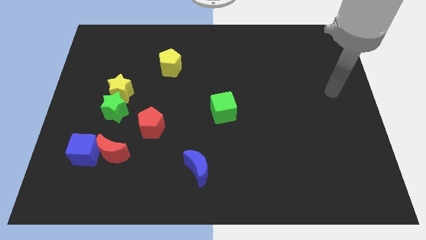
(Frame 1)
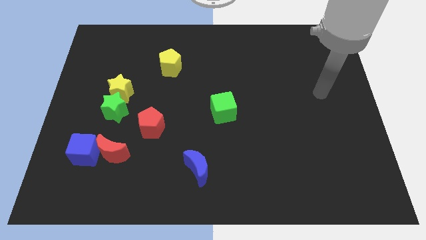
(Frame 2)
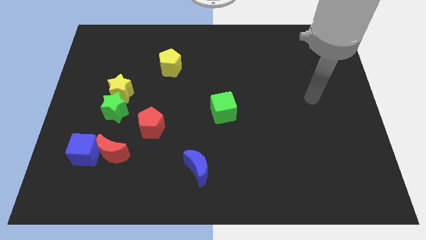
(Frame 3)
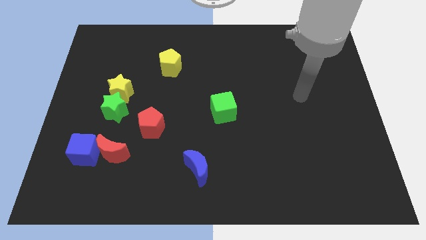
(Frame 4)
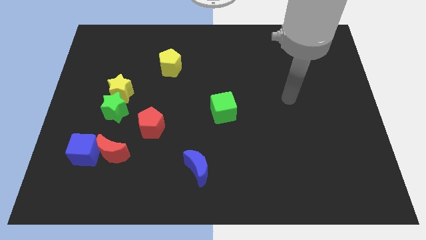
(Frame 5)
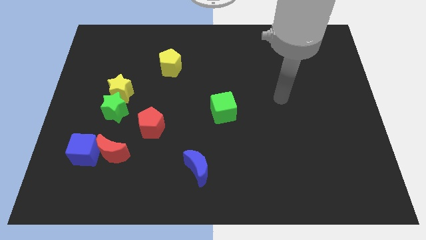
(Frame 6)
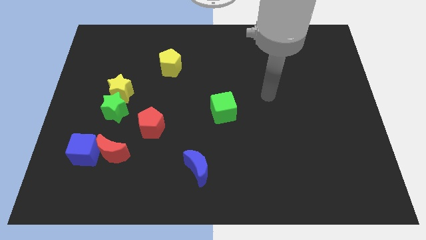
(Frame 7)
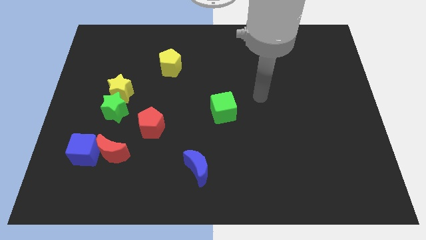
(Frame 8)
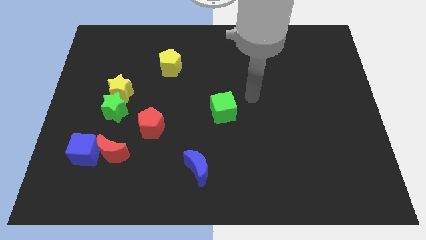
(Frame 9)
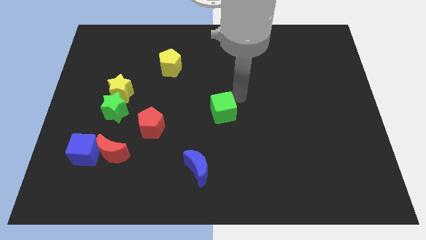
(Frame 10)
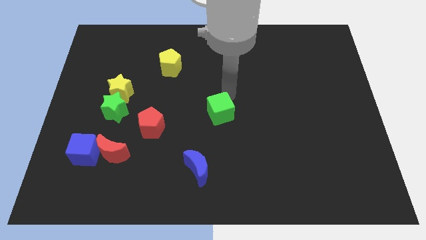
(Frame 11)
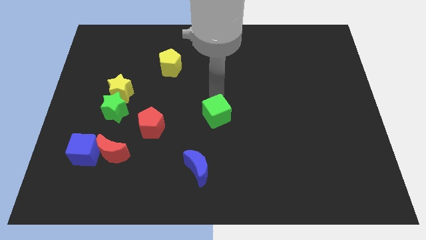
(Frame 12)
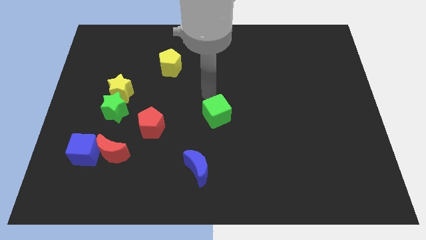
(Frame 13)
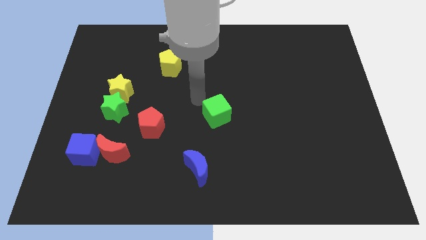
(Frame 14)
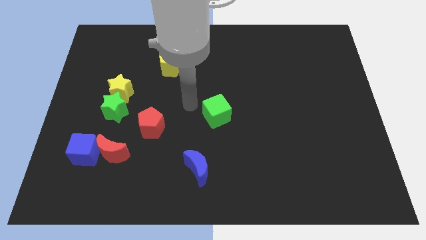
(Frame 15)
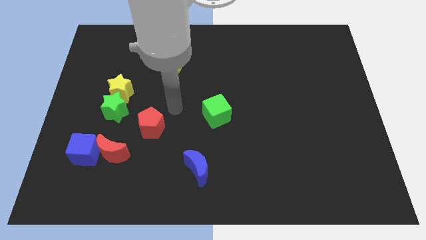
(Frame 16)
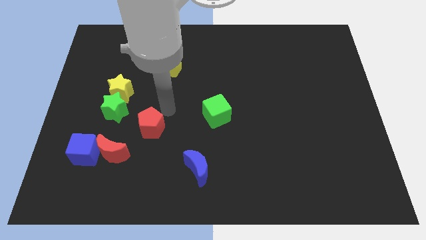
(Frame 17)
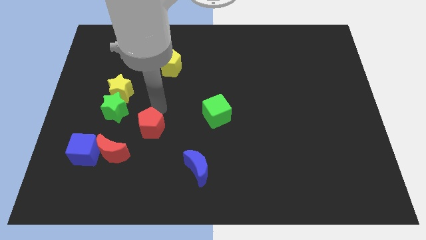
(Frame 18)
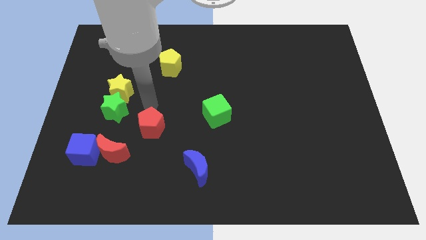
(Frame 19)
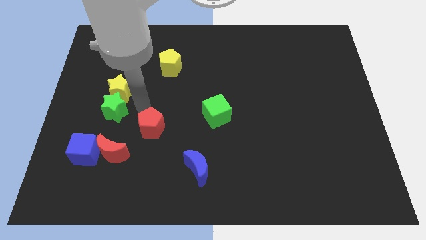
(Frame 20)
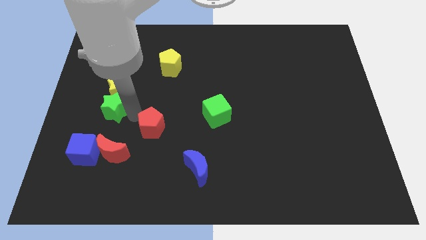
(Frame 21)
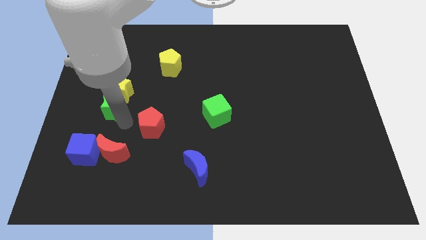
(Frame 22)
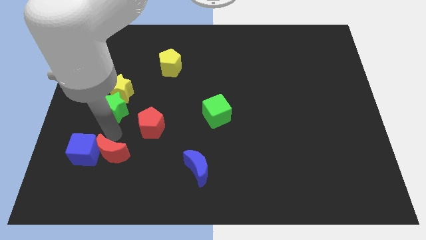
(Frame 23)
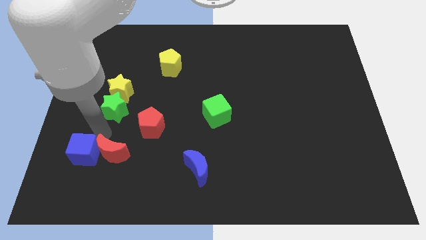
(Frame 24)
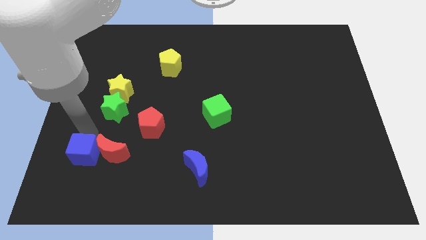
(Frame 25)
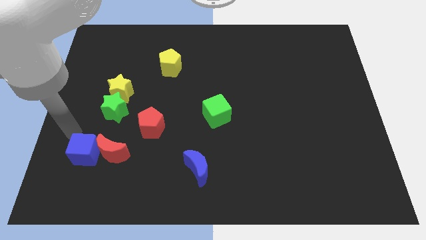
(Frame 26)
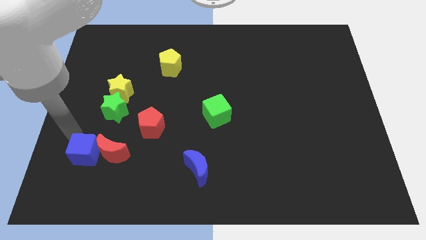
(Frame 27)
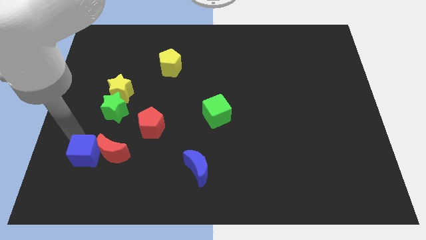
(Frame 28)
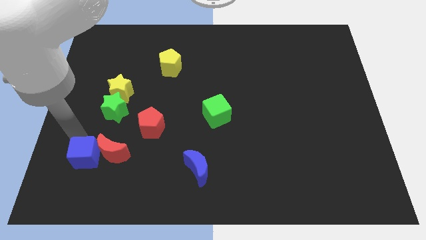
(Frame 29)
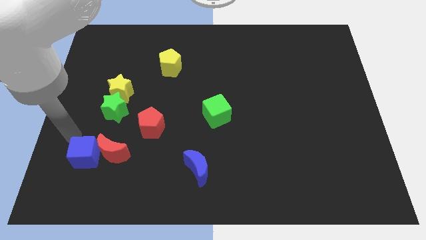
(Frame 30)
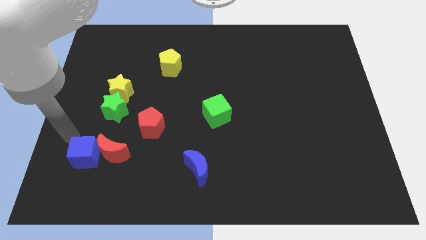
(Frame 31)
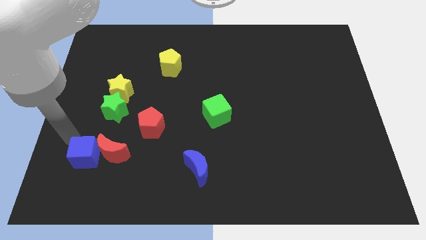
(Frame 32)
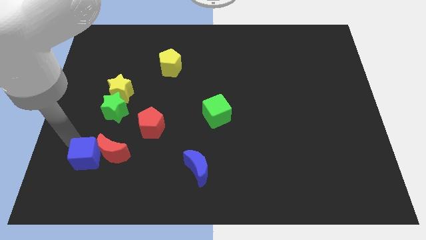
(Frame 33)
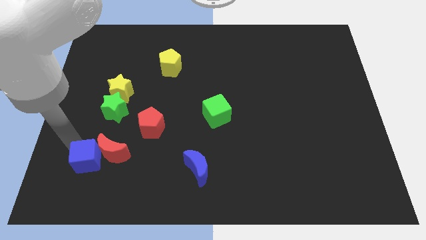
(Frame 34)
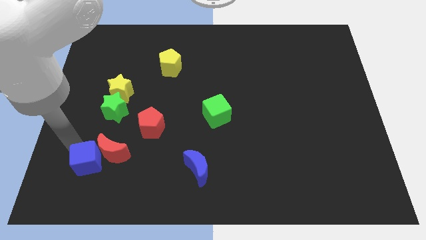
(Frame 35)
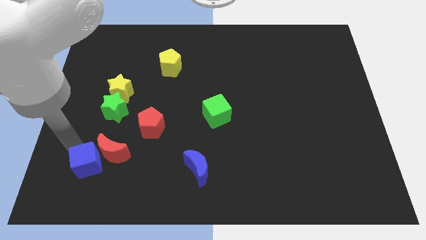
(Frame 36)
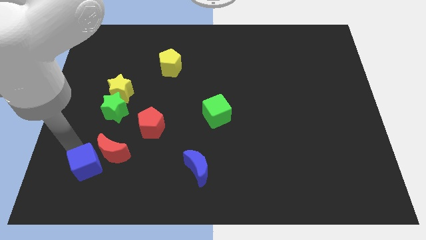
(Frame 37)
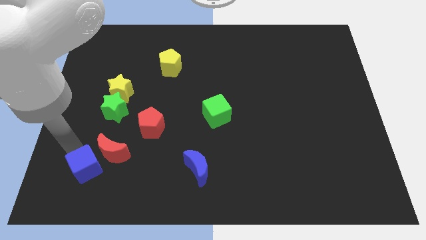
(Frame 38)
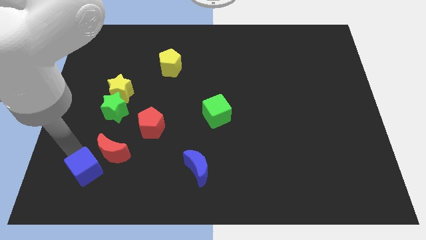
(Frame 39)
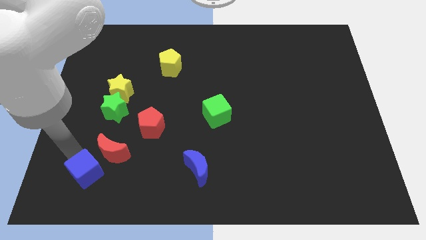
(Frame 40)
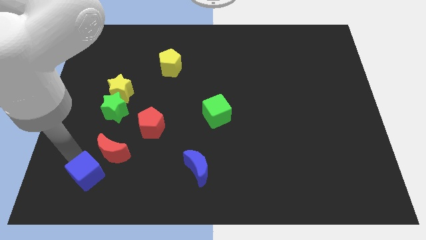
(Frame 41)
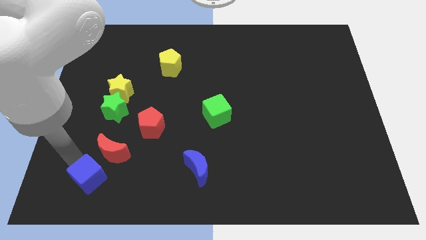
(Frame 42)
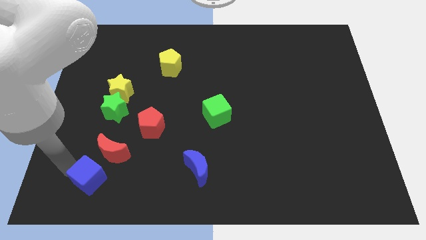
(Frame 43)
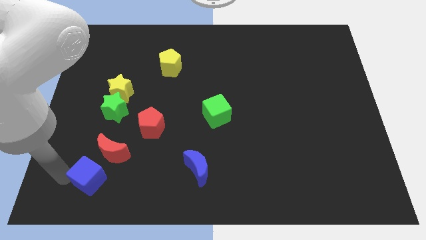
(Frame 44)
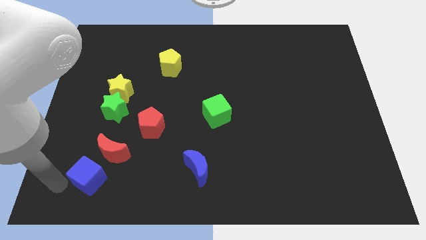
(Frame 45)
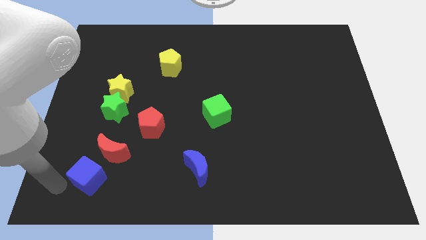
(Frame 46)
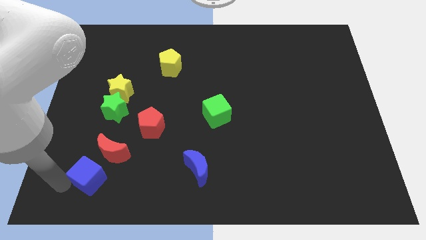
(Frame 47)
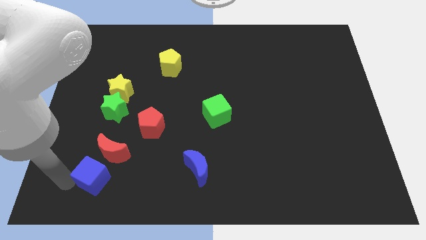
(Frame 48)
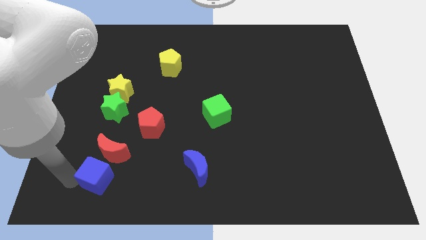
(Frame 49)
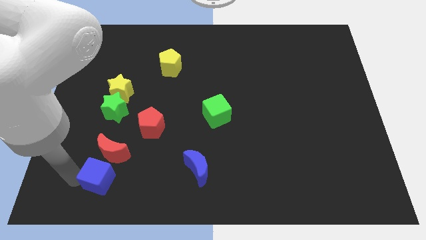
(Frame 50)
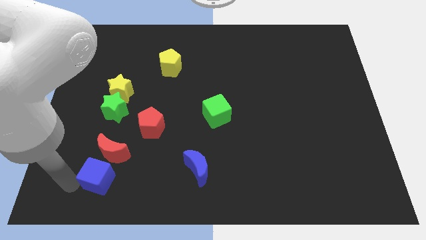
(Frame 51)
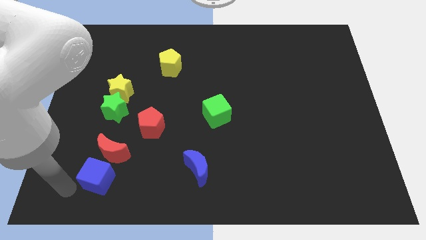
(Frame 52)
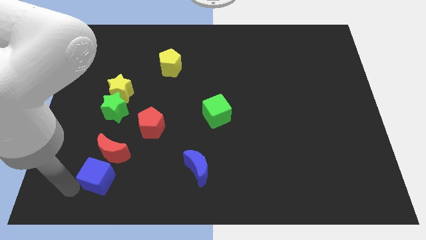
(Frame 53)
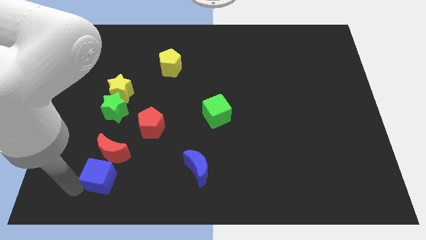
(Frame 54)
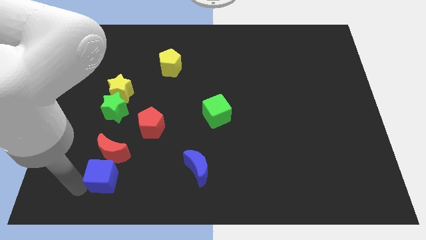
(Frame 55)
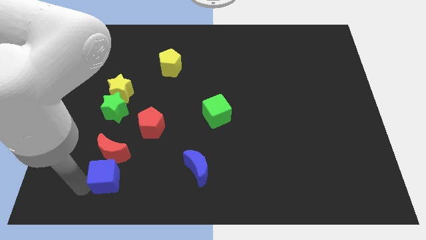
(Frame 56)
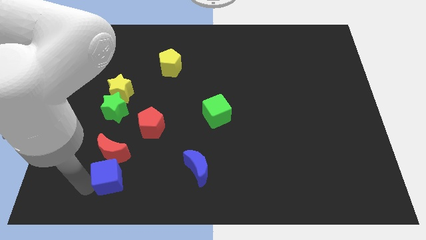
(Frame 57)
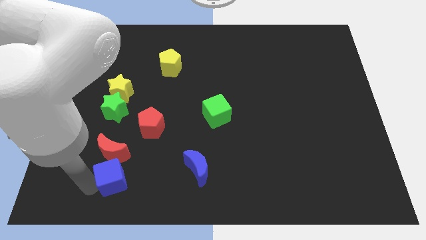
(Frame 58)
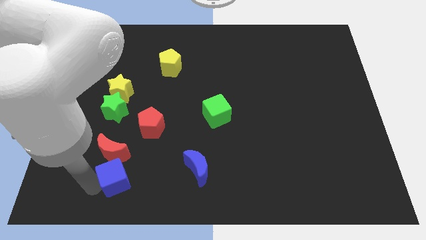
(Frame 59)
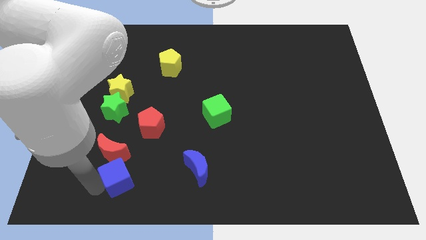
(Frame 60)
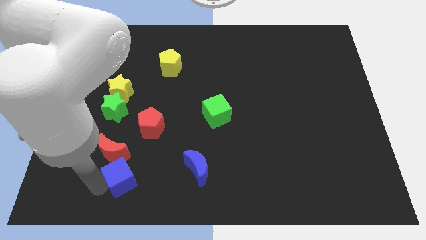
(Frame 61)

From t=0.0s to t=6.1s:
push the blue cube slightly to the right

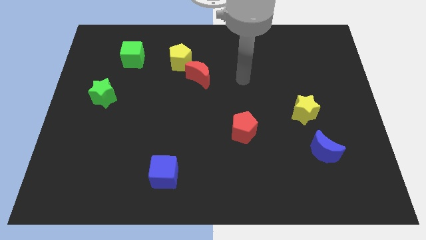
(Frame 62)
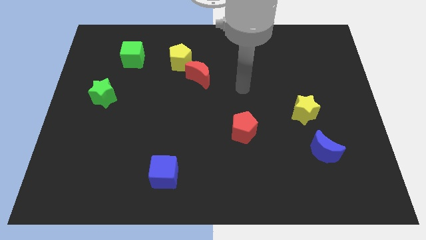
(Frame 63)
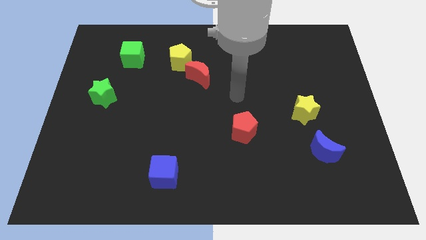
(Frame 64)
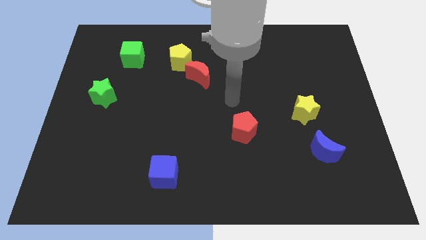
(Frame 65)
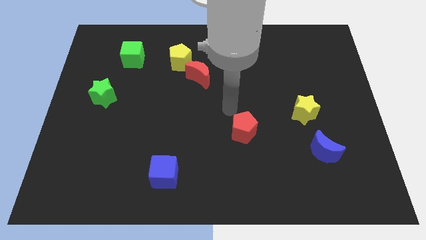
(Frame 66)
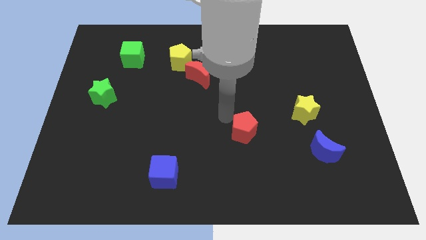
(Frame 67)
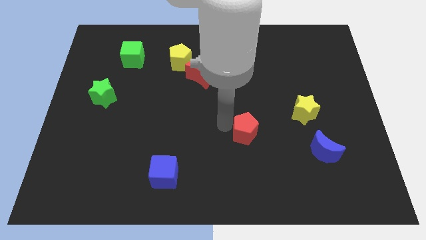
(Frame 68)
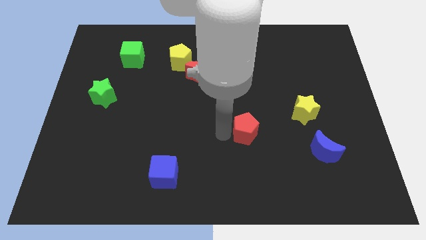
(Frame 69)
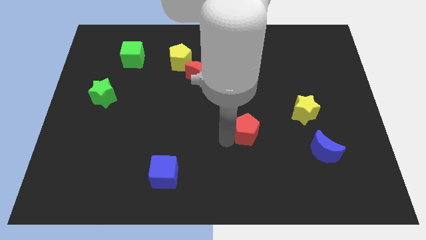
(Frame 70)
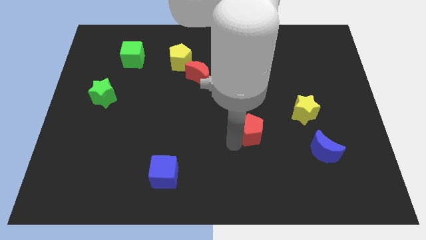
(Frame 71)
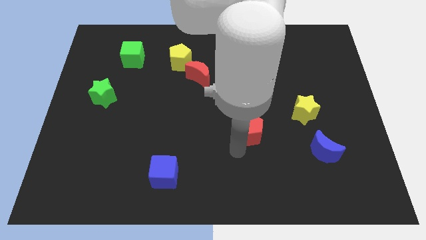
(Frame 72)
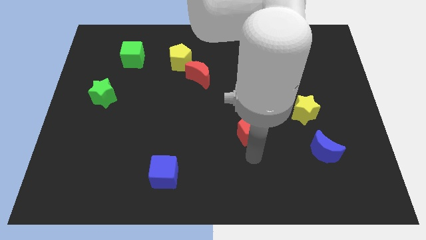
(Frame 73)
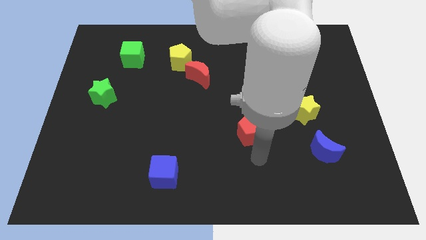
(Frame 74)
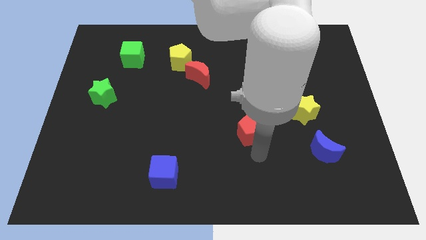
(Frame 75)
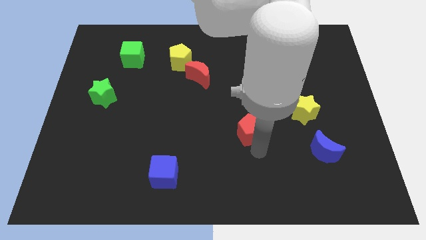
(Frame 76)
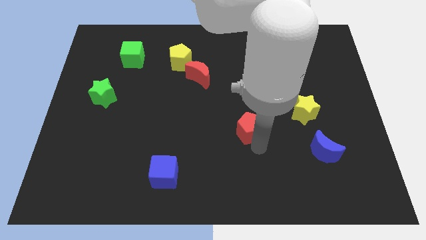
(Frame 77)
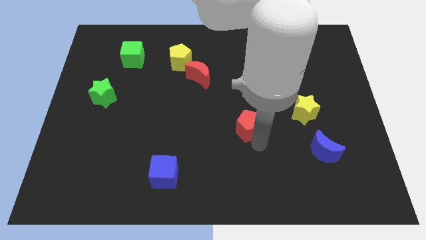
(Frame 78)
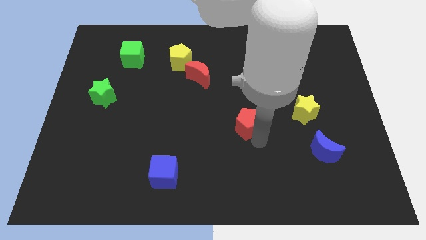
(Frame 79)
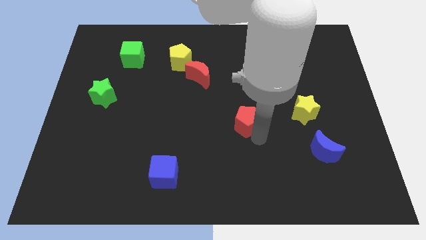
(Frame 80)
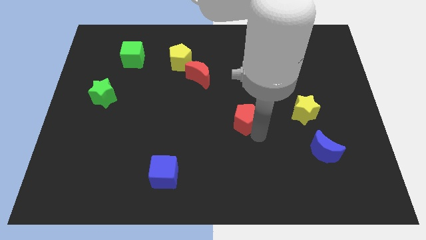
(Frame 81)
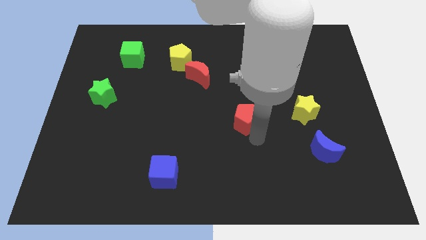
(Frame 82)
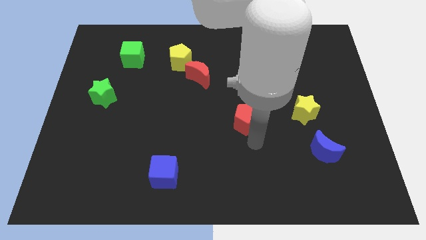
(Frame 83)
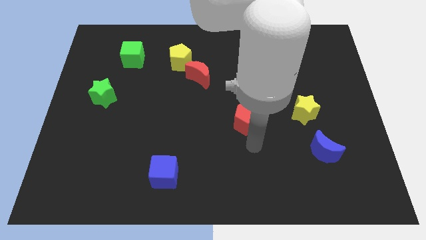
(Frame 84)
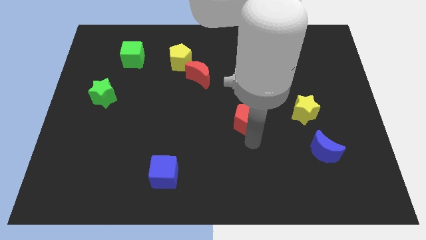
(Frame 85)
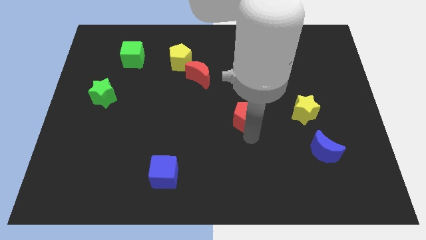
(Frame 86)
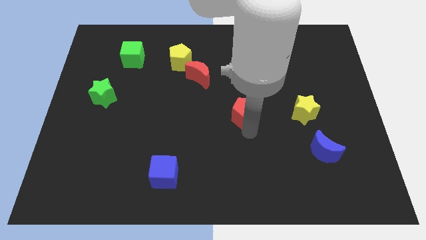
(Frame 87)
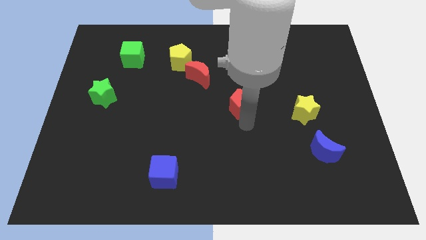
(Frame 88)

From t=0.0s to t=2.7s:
slide the red pentagon upwards slightly
